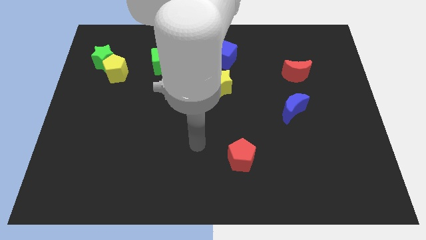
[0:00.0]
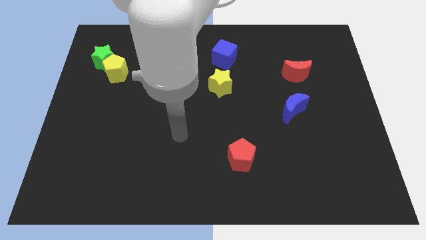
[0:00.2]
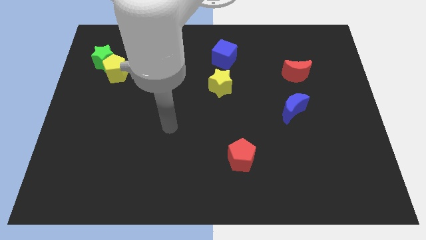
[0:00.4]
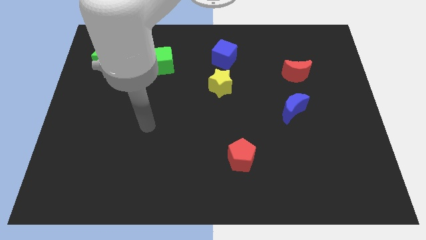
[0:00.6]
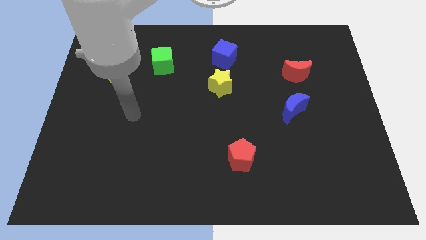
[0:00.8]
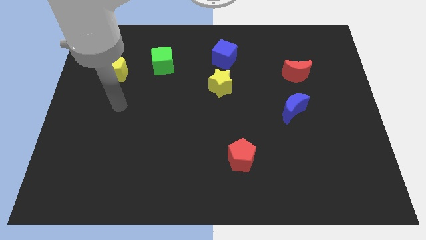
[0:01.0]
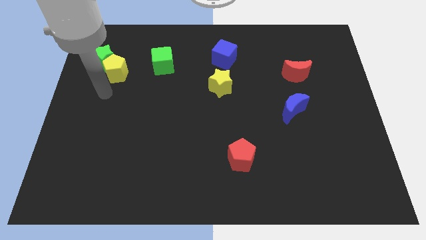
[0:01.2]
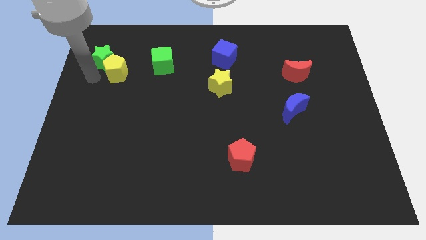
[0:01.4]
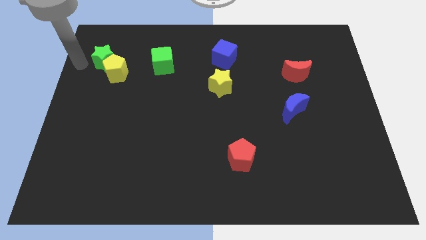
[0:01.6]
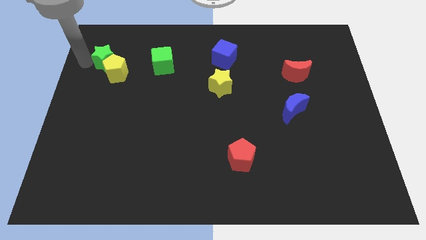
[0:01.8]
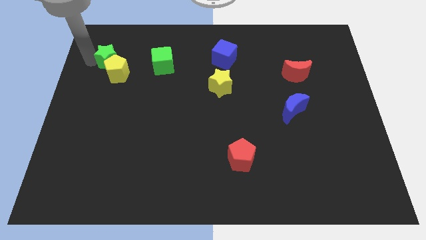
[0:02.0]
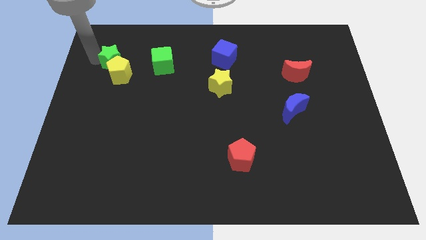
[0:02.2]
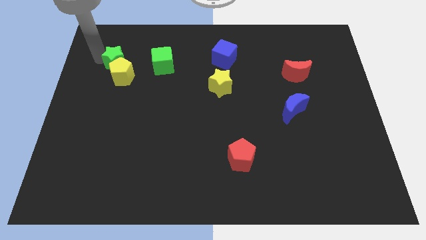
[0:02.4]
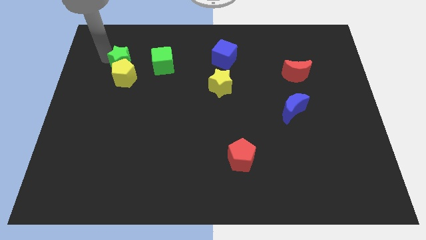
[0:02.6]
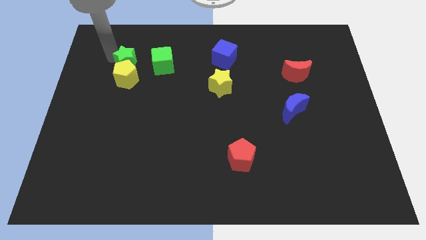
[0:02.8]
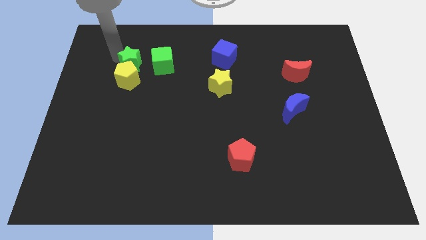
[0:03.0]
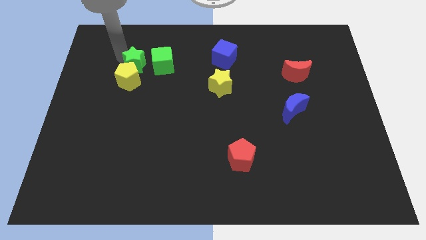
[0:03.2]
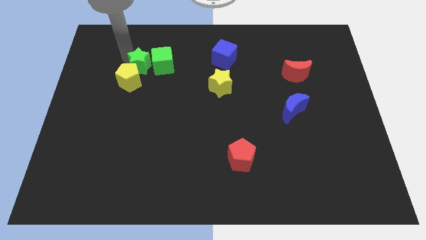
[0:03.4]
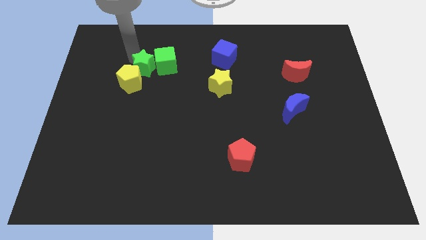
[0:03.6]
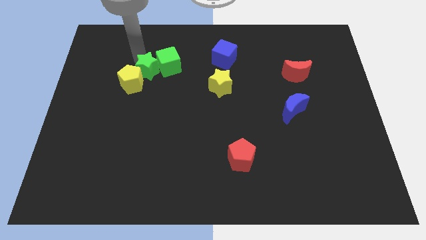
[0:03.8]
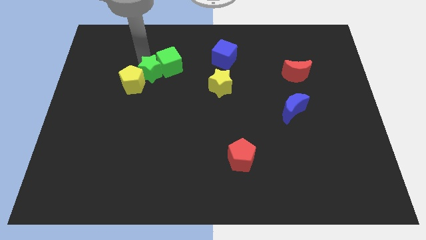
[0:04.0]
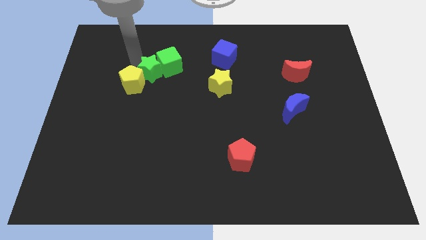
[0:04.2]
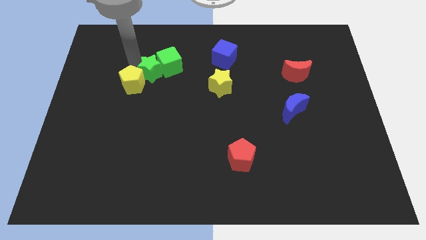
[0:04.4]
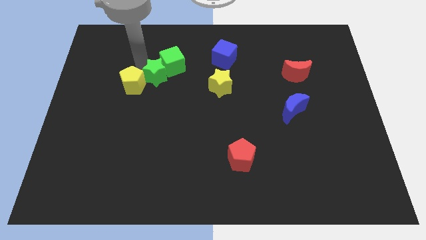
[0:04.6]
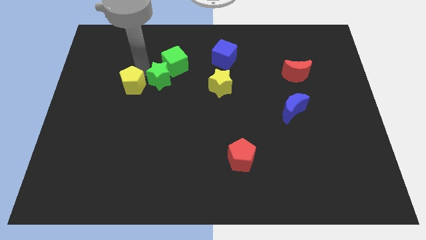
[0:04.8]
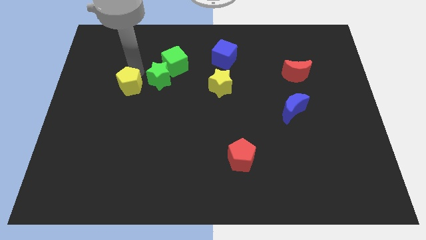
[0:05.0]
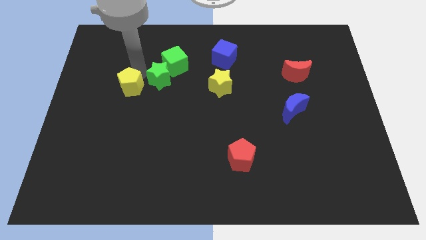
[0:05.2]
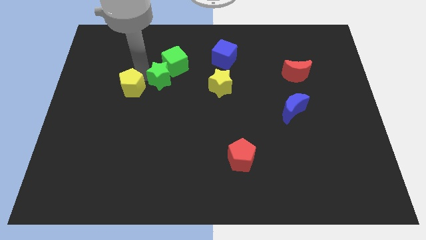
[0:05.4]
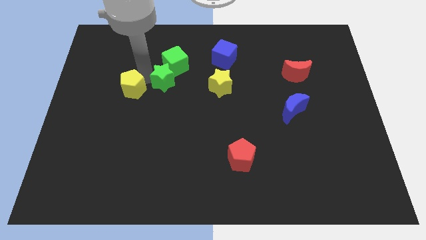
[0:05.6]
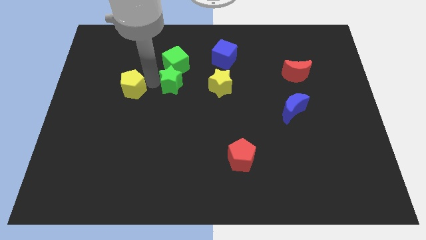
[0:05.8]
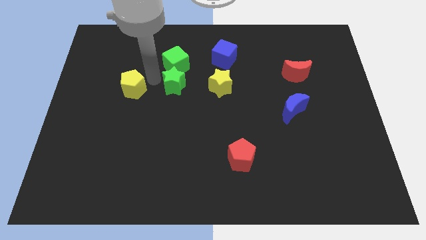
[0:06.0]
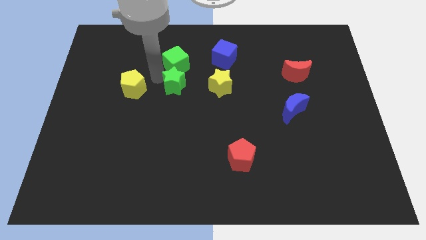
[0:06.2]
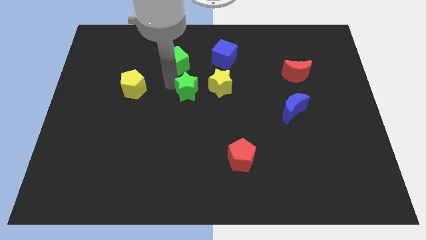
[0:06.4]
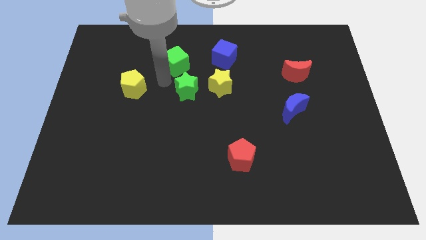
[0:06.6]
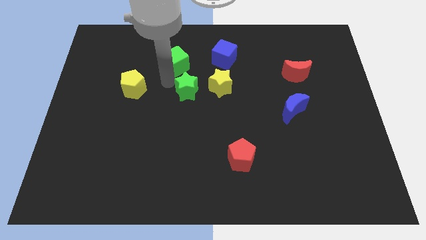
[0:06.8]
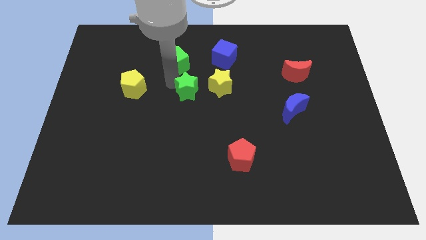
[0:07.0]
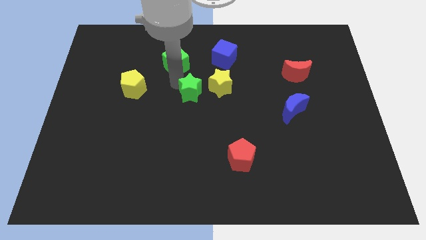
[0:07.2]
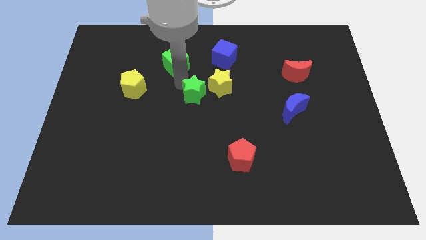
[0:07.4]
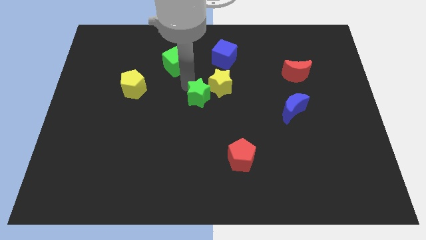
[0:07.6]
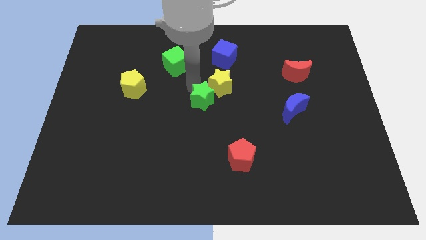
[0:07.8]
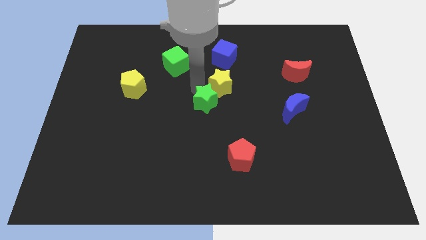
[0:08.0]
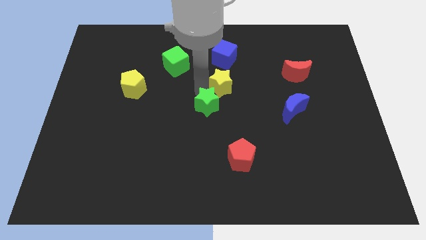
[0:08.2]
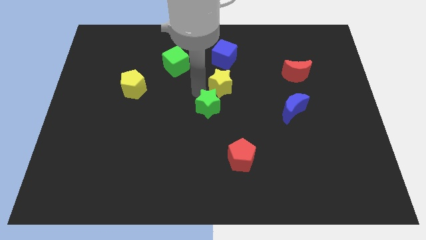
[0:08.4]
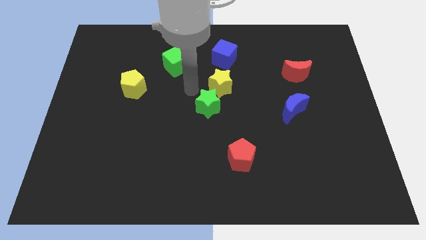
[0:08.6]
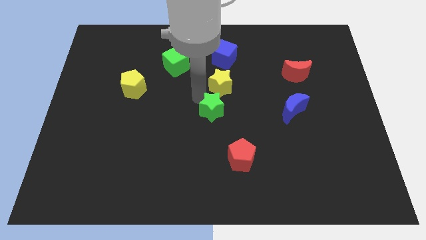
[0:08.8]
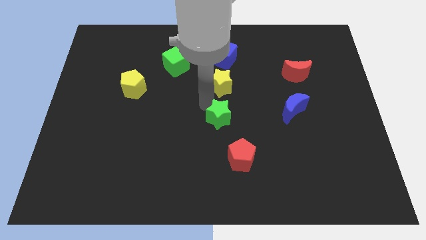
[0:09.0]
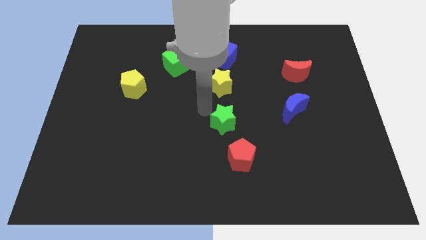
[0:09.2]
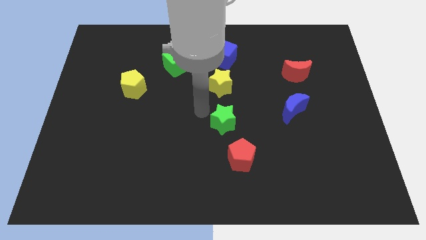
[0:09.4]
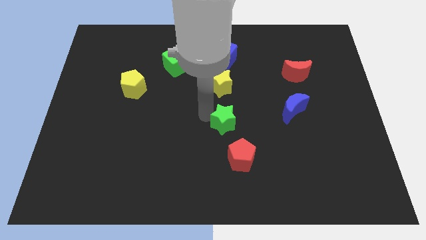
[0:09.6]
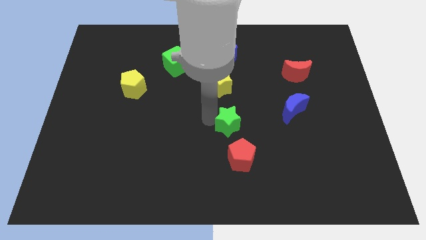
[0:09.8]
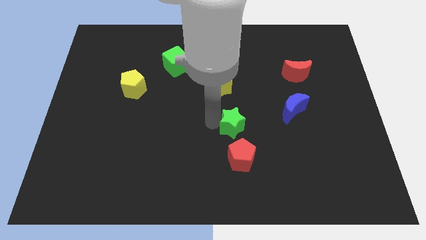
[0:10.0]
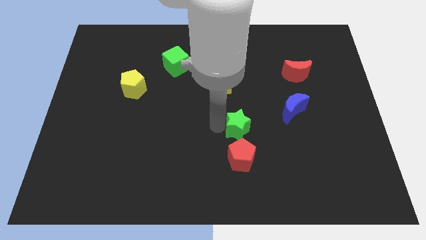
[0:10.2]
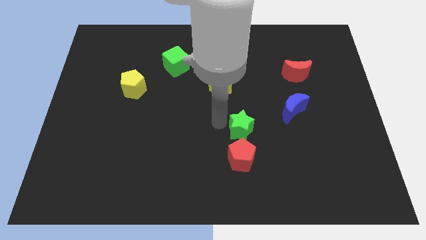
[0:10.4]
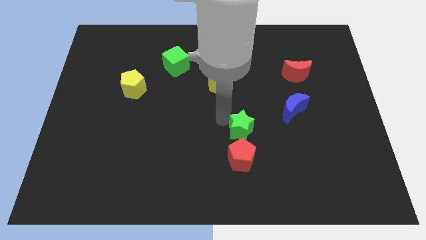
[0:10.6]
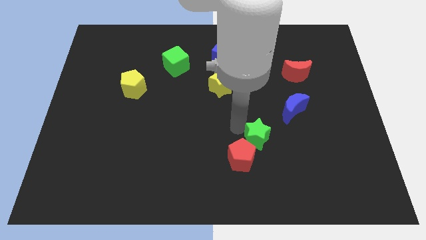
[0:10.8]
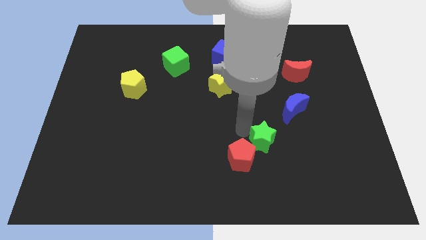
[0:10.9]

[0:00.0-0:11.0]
push the green star to the right side of the red pentagon
